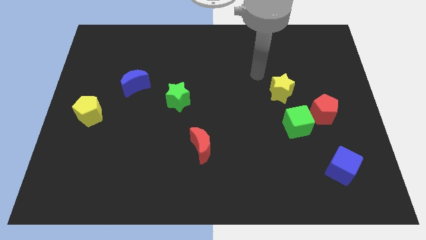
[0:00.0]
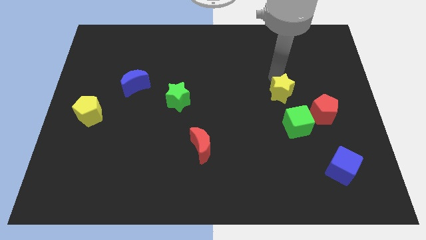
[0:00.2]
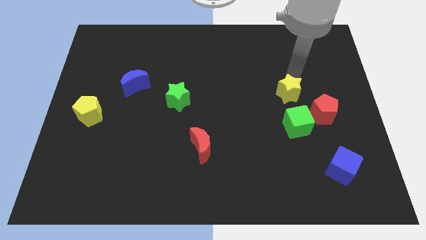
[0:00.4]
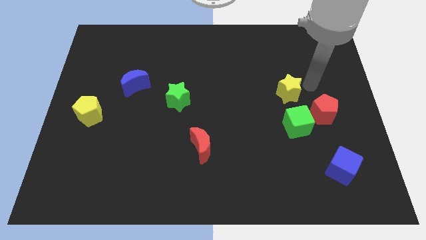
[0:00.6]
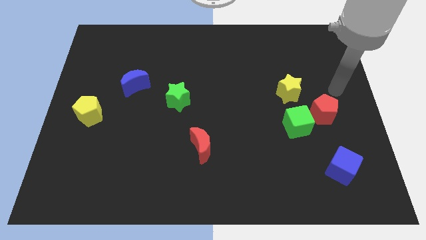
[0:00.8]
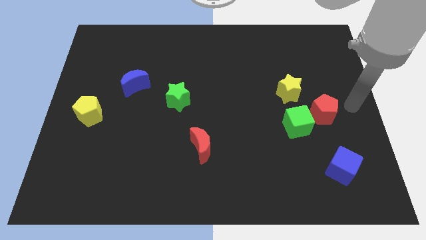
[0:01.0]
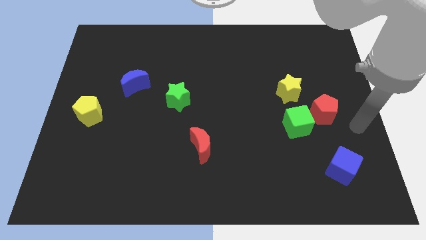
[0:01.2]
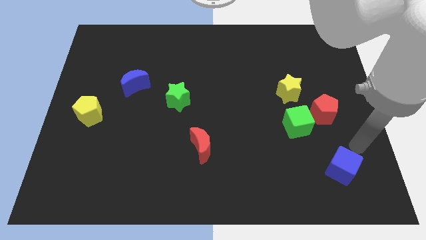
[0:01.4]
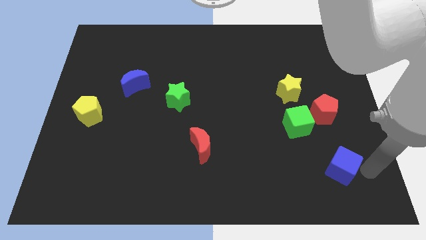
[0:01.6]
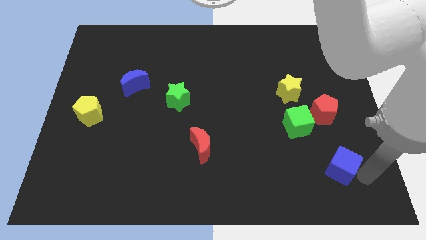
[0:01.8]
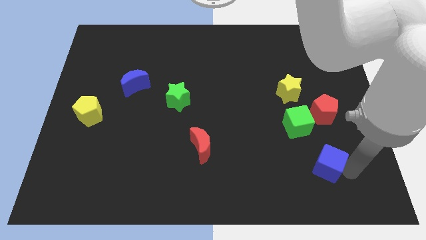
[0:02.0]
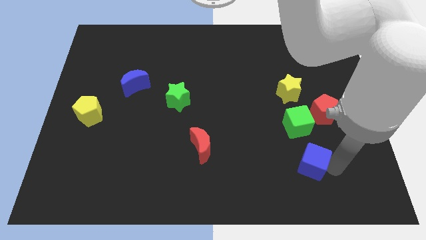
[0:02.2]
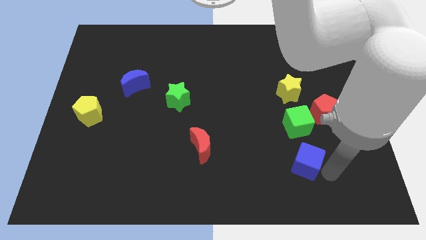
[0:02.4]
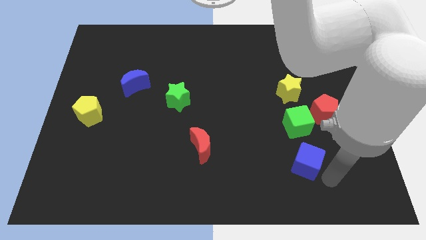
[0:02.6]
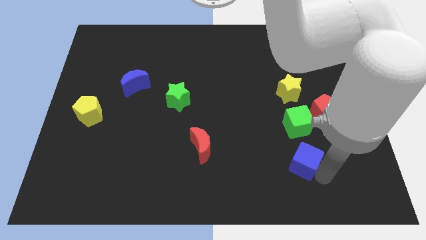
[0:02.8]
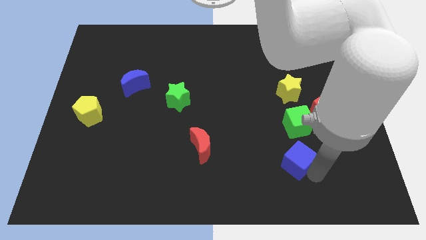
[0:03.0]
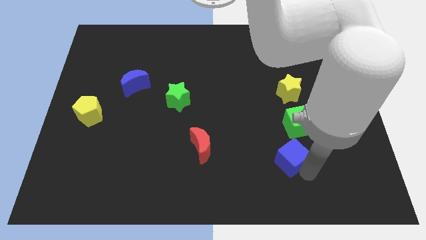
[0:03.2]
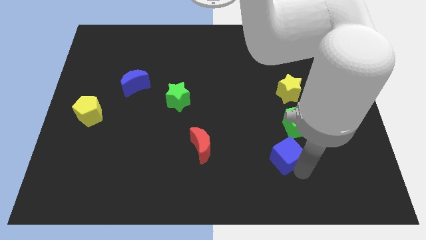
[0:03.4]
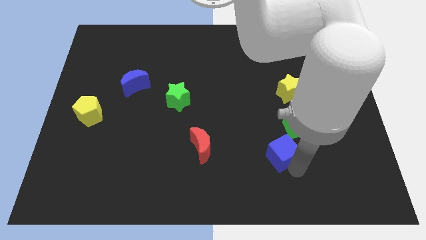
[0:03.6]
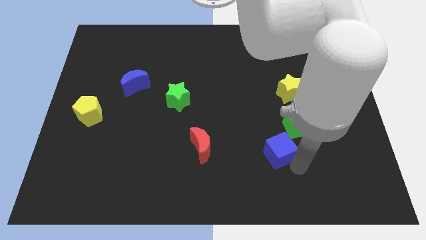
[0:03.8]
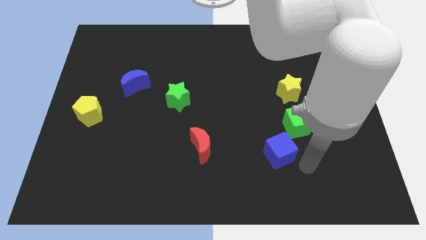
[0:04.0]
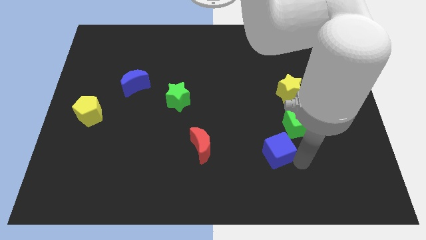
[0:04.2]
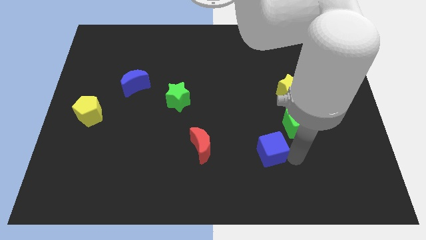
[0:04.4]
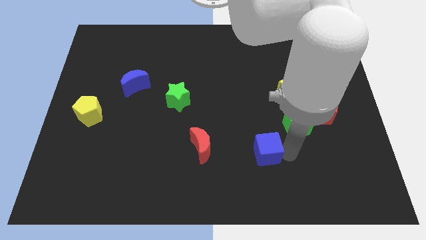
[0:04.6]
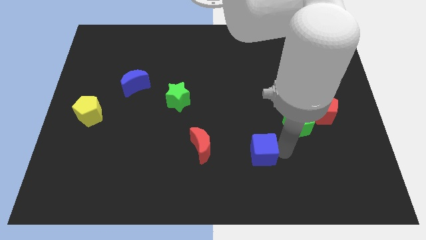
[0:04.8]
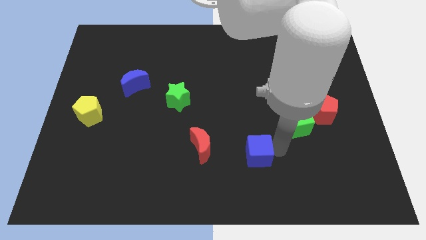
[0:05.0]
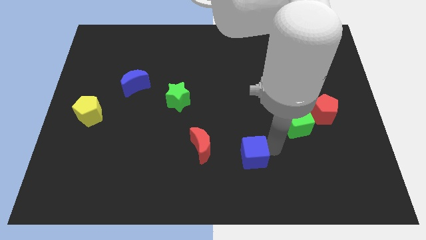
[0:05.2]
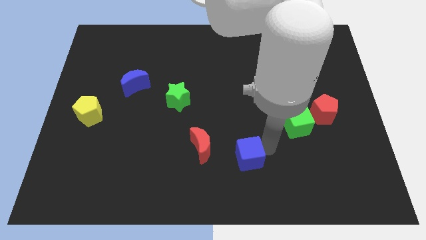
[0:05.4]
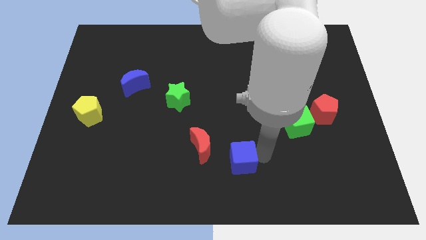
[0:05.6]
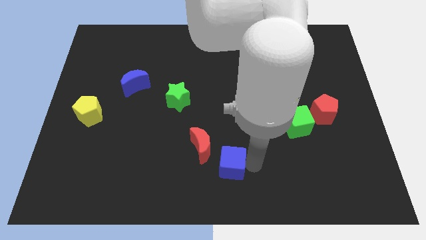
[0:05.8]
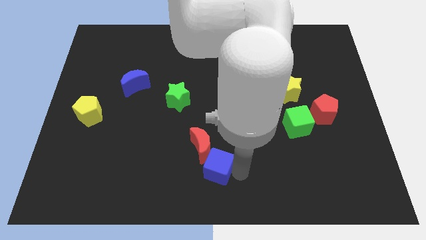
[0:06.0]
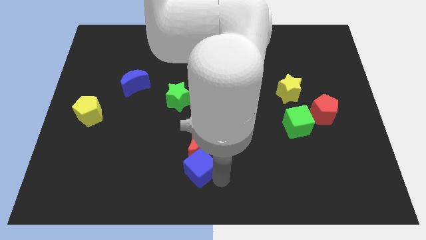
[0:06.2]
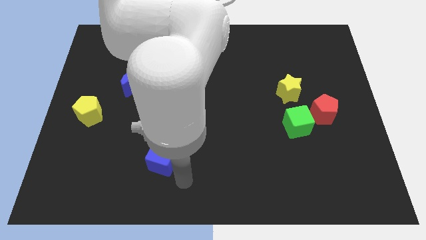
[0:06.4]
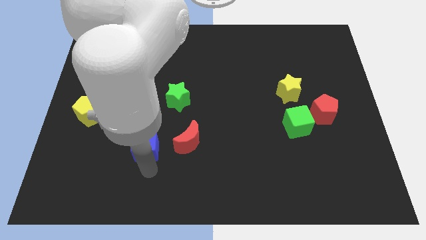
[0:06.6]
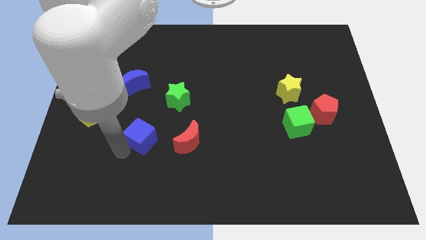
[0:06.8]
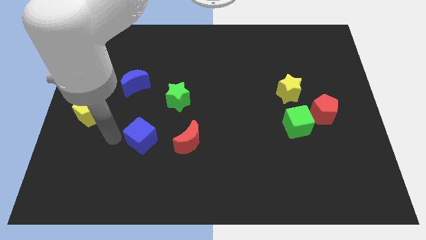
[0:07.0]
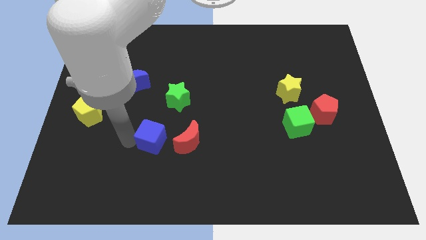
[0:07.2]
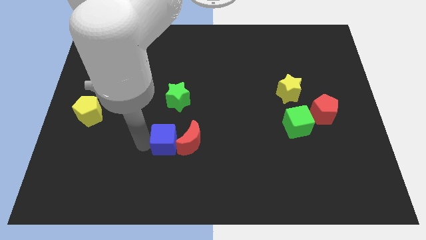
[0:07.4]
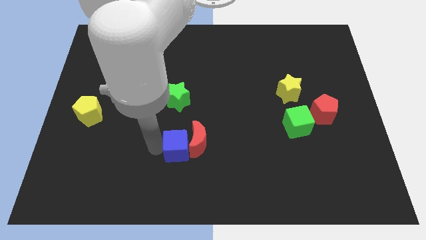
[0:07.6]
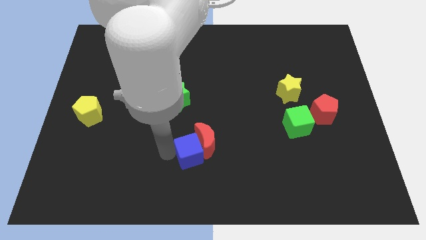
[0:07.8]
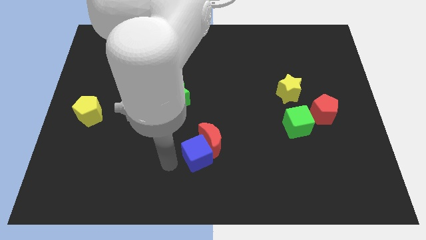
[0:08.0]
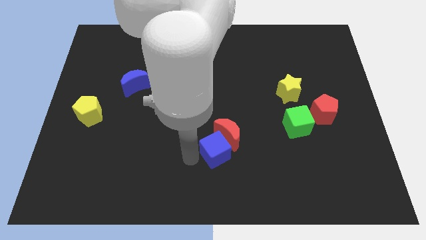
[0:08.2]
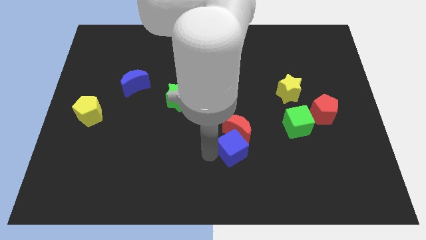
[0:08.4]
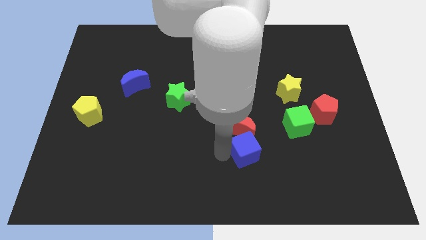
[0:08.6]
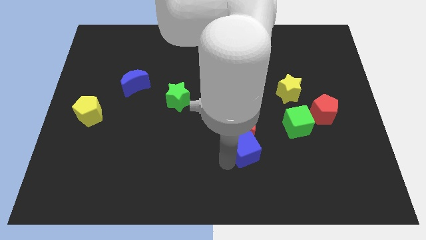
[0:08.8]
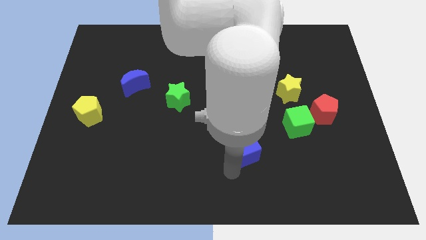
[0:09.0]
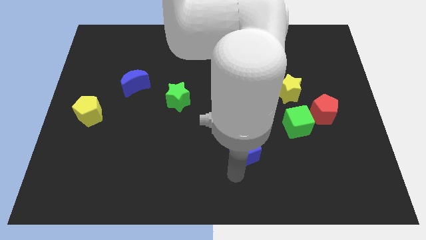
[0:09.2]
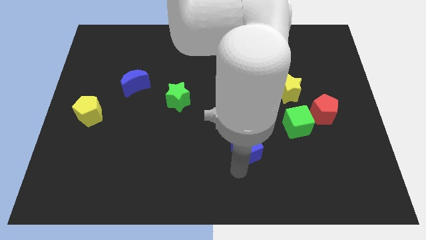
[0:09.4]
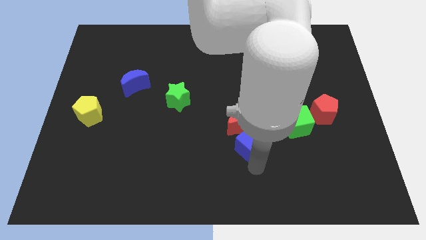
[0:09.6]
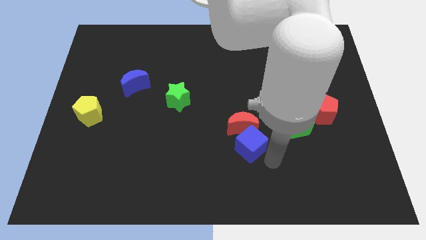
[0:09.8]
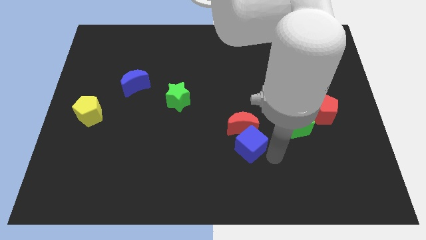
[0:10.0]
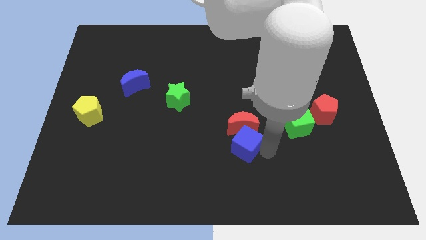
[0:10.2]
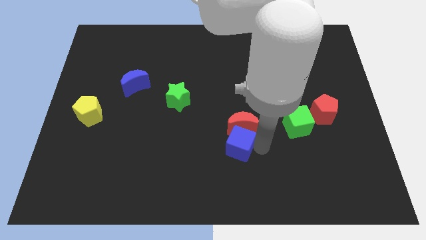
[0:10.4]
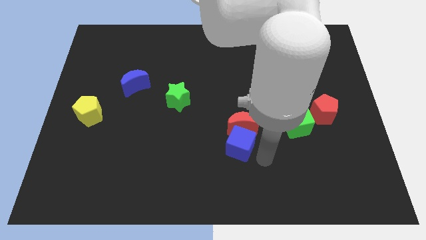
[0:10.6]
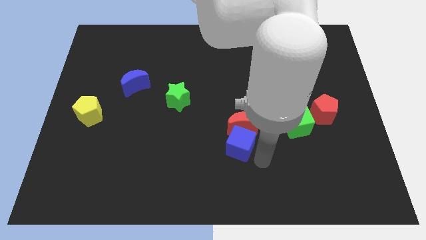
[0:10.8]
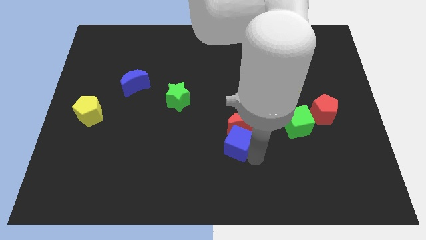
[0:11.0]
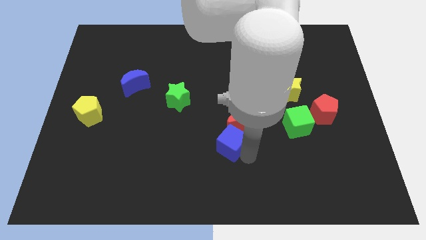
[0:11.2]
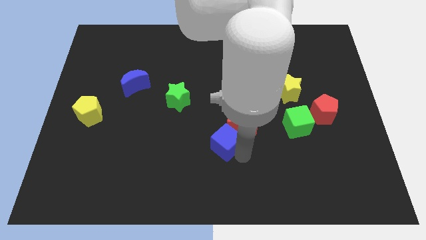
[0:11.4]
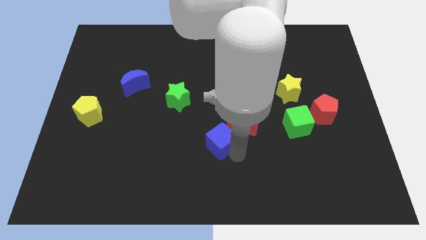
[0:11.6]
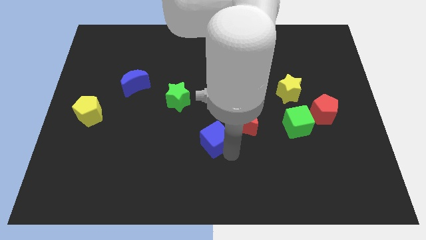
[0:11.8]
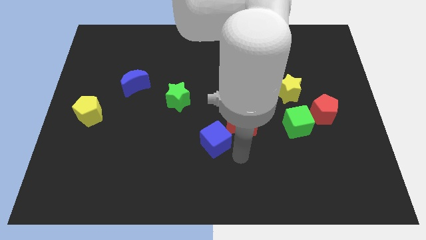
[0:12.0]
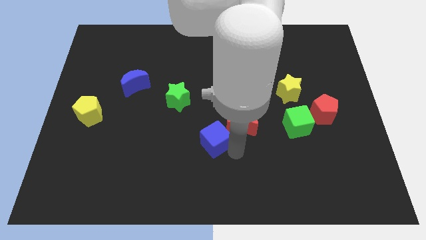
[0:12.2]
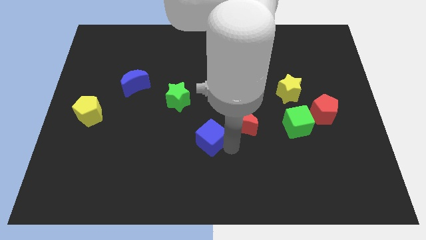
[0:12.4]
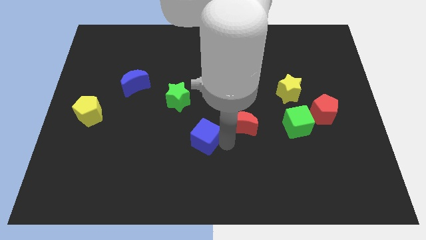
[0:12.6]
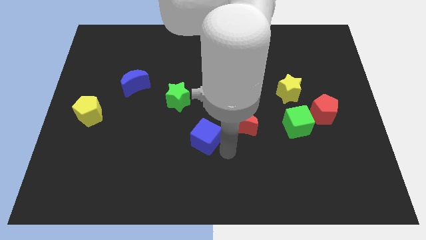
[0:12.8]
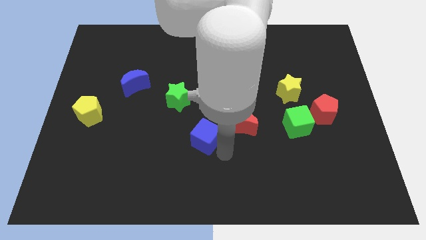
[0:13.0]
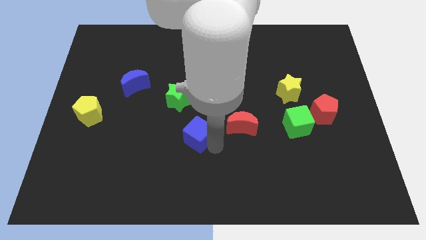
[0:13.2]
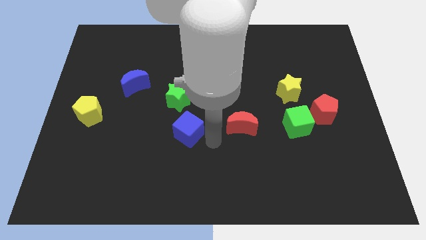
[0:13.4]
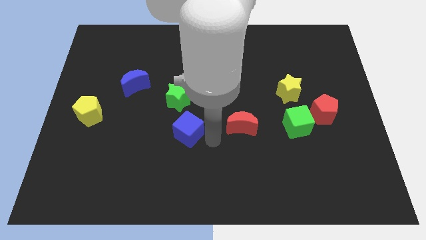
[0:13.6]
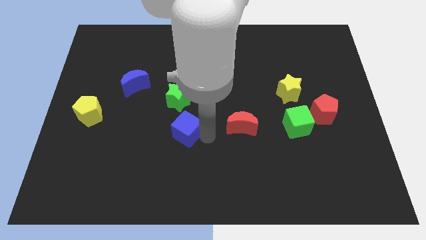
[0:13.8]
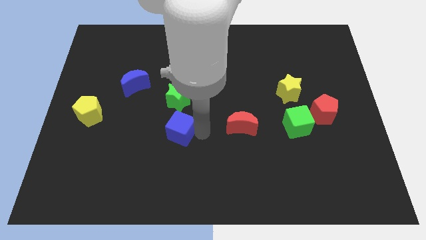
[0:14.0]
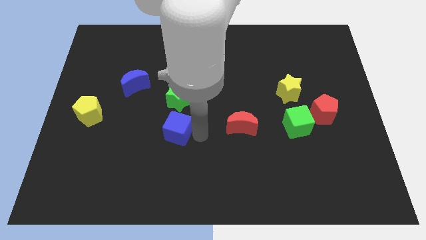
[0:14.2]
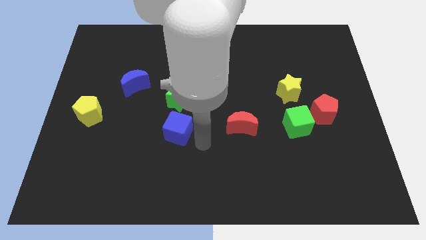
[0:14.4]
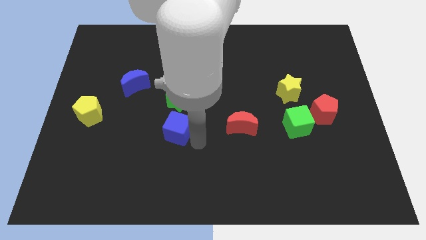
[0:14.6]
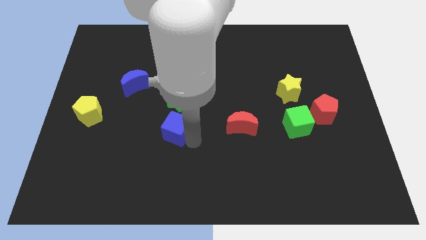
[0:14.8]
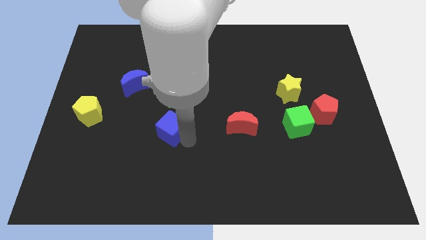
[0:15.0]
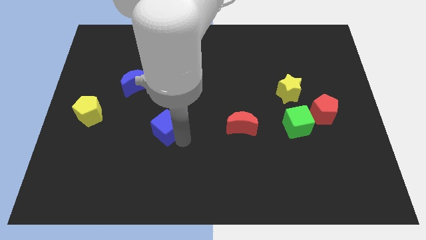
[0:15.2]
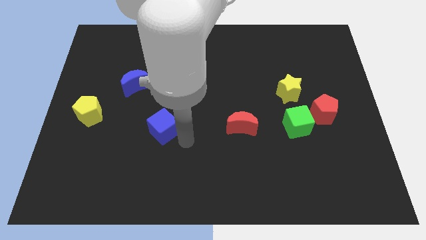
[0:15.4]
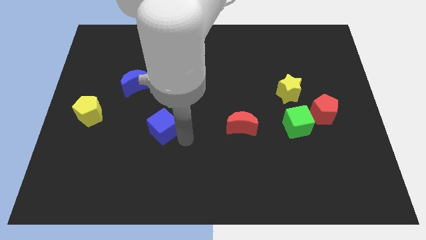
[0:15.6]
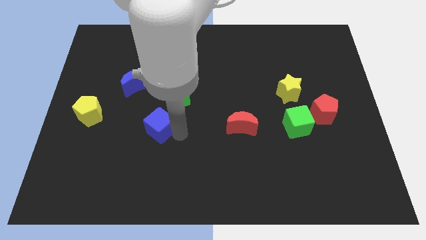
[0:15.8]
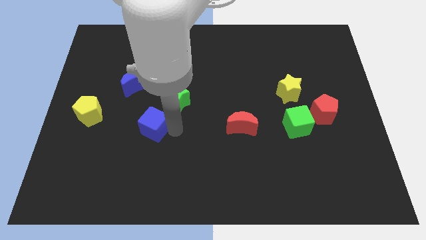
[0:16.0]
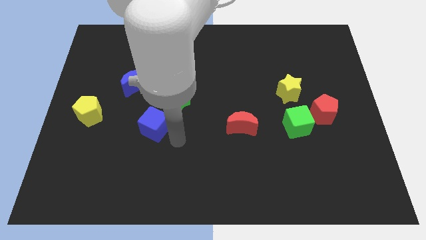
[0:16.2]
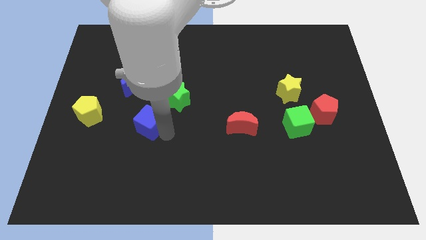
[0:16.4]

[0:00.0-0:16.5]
move the blue cube right of the yellow pentagon
